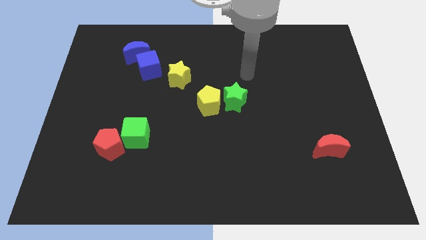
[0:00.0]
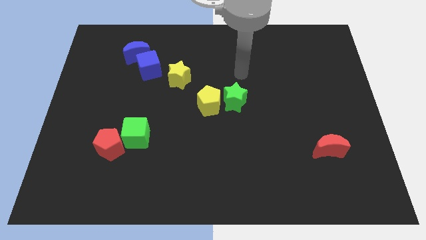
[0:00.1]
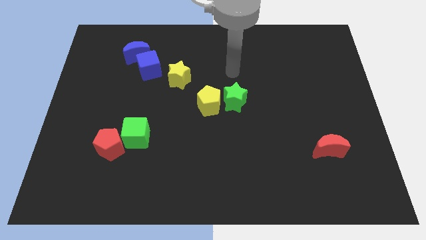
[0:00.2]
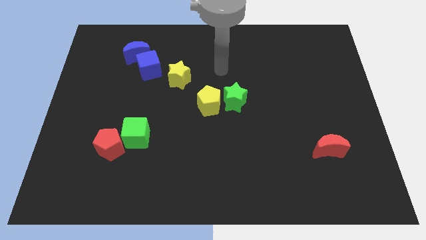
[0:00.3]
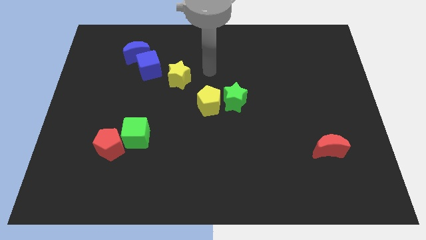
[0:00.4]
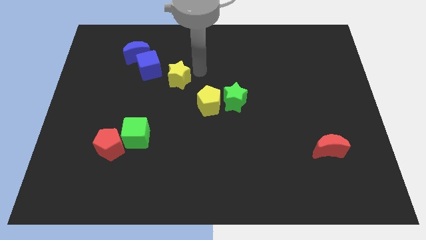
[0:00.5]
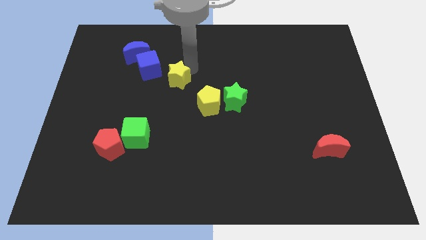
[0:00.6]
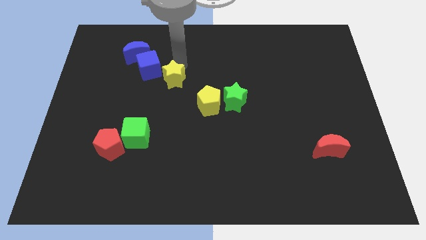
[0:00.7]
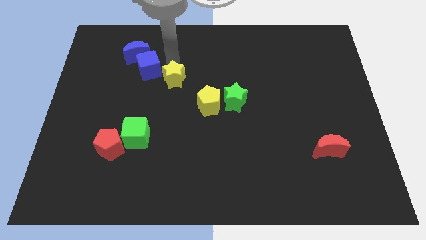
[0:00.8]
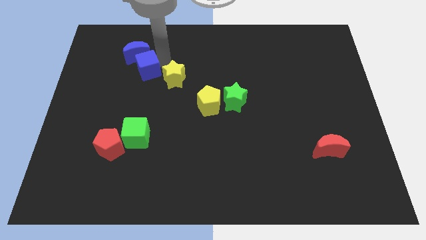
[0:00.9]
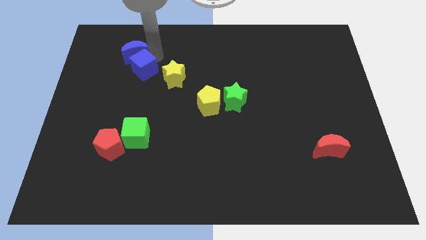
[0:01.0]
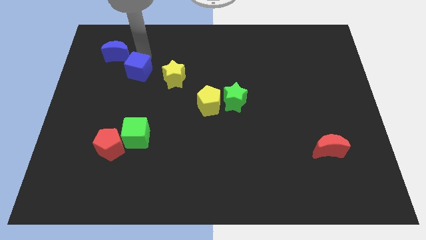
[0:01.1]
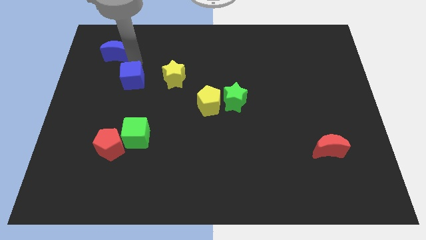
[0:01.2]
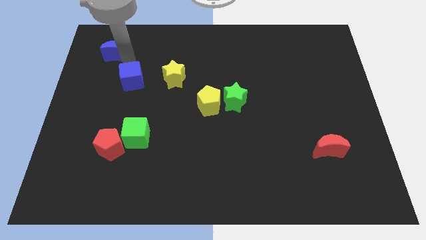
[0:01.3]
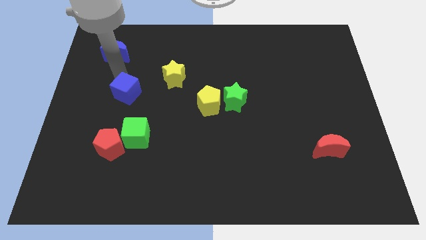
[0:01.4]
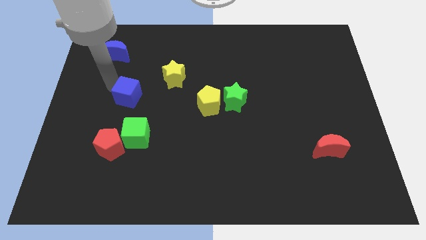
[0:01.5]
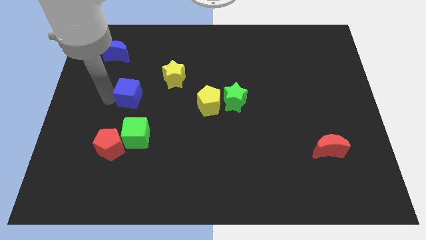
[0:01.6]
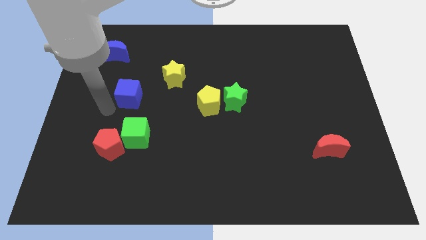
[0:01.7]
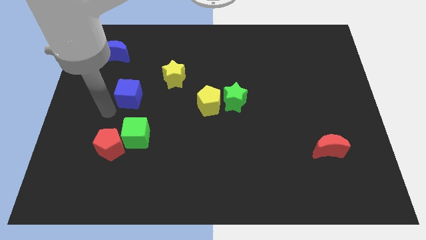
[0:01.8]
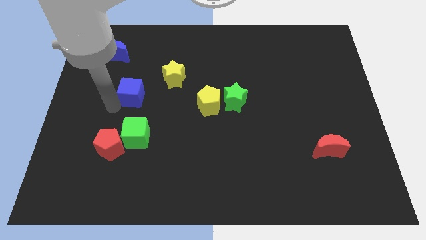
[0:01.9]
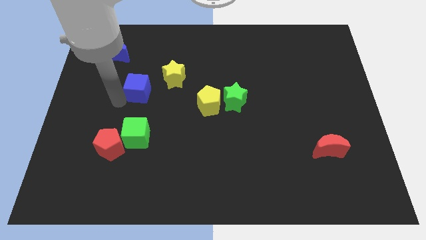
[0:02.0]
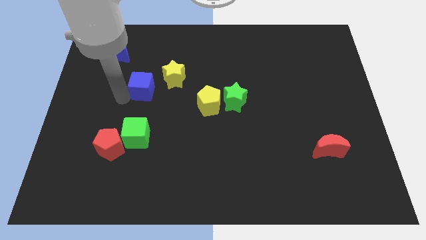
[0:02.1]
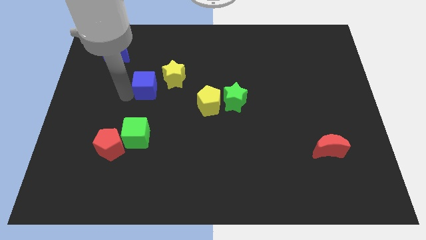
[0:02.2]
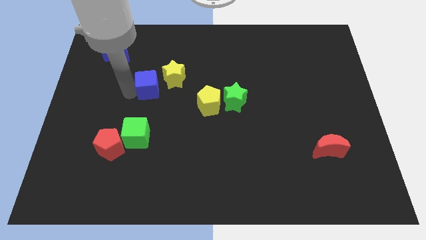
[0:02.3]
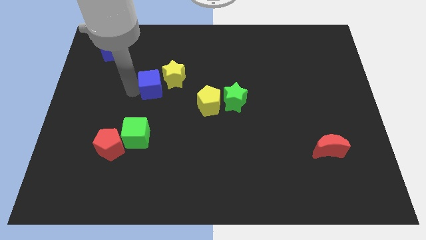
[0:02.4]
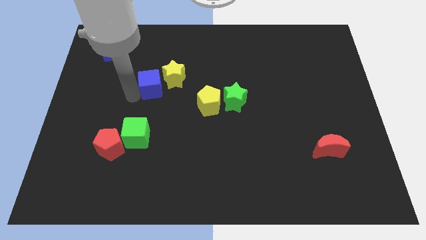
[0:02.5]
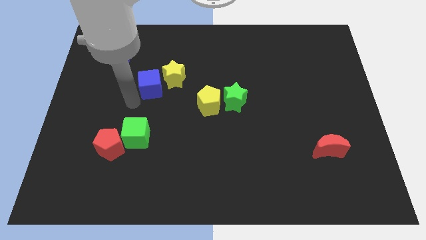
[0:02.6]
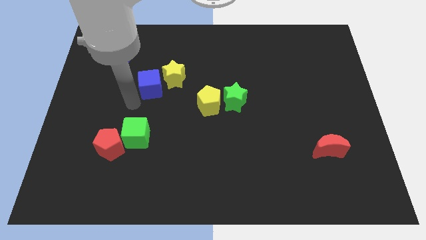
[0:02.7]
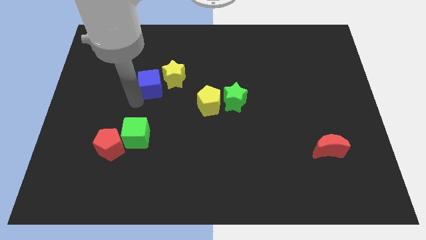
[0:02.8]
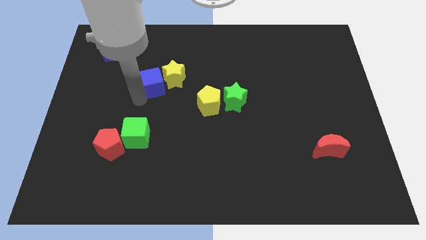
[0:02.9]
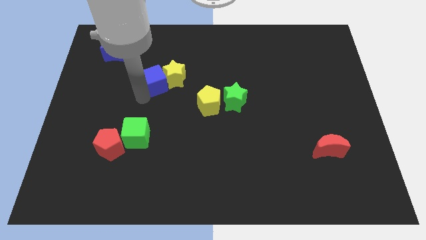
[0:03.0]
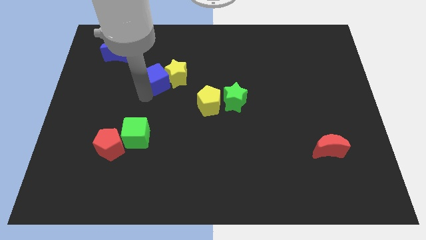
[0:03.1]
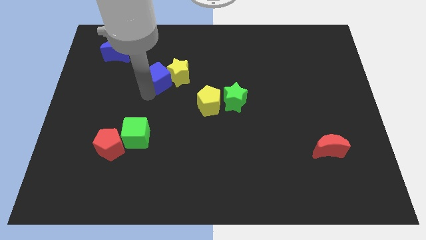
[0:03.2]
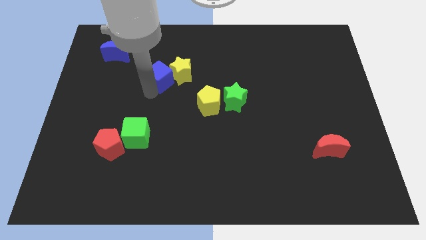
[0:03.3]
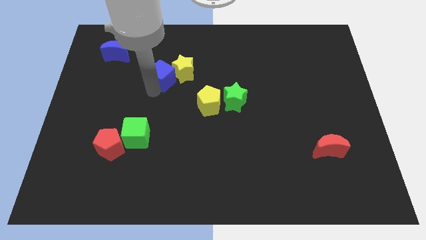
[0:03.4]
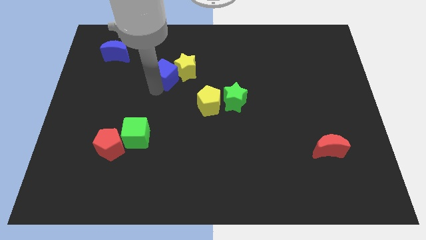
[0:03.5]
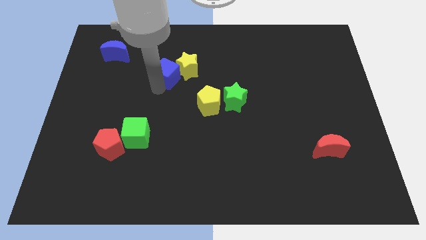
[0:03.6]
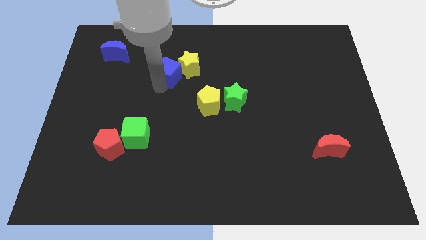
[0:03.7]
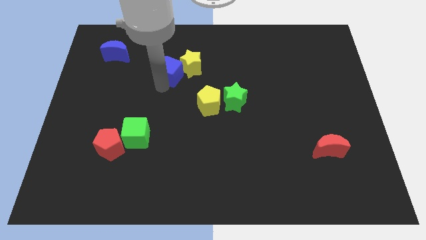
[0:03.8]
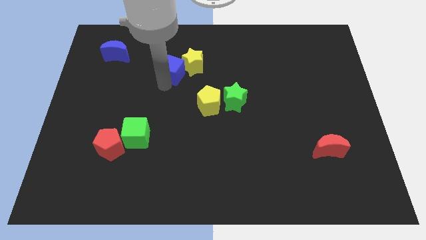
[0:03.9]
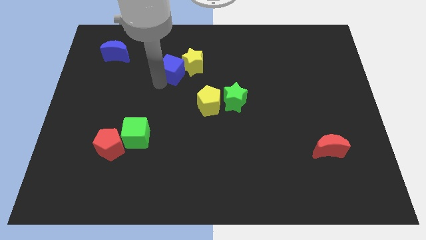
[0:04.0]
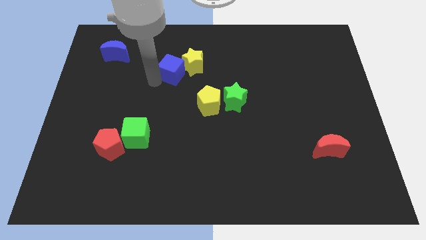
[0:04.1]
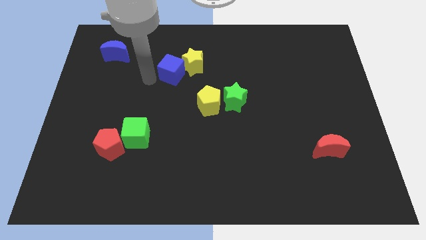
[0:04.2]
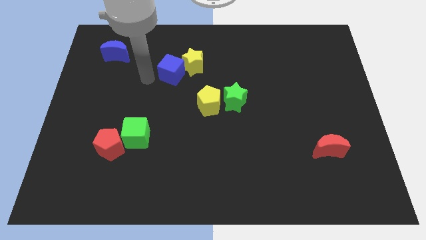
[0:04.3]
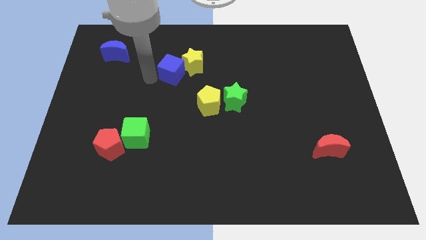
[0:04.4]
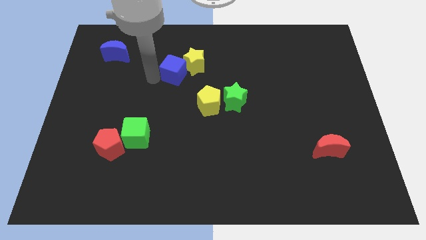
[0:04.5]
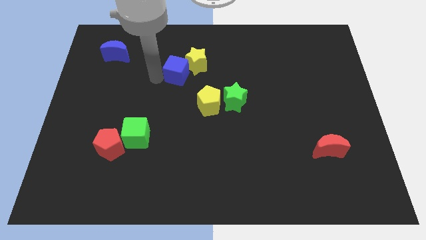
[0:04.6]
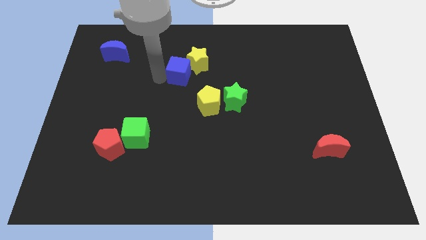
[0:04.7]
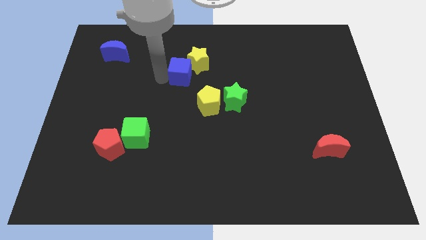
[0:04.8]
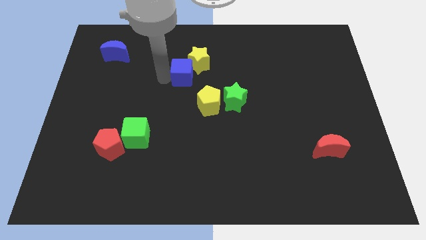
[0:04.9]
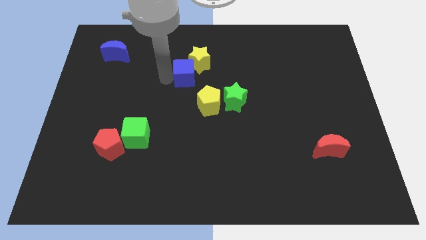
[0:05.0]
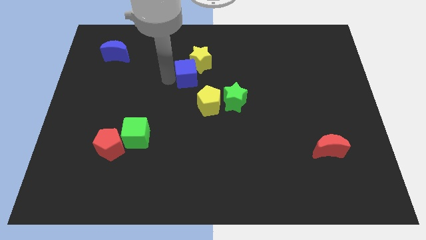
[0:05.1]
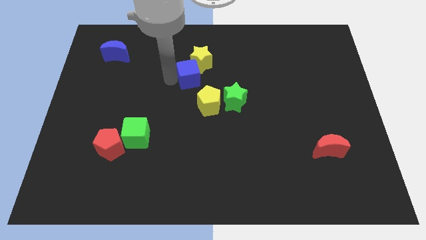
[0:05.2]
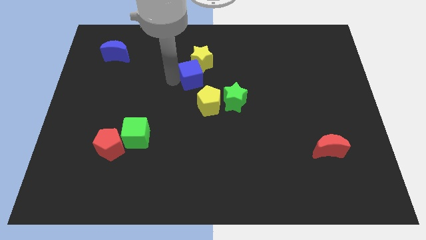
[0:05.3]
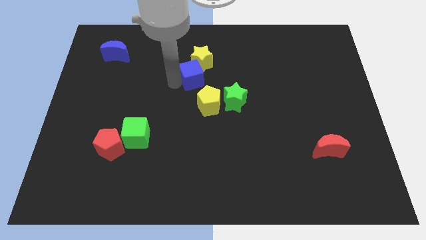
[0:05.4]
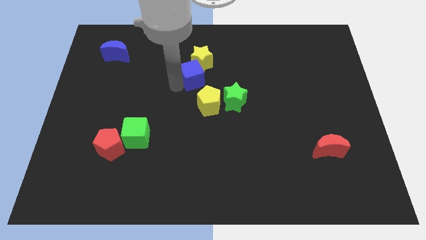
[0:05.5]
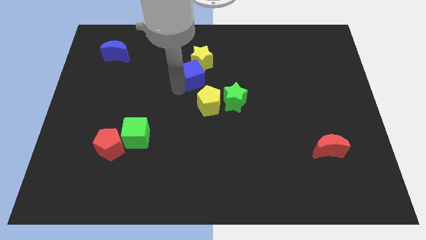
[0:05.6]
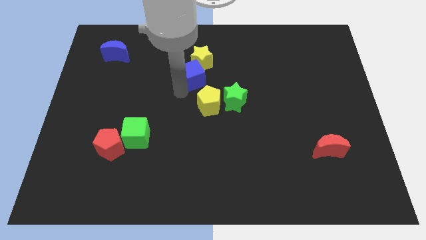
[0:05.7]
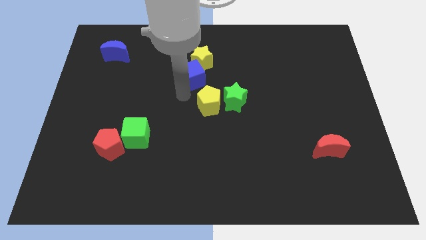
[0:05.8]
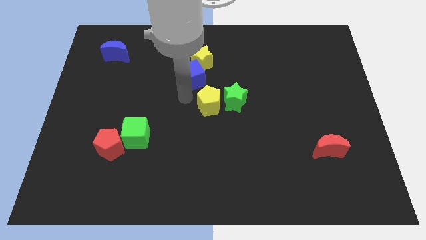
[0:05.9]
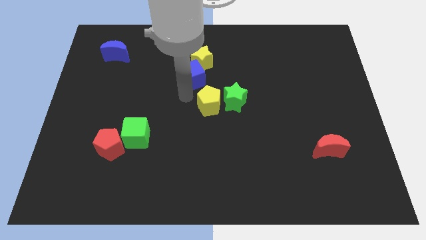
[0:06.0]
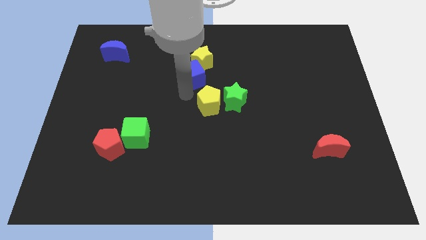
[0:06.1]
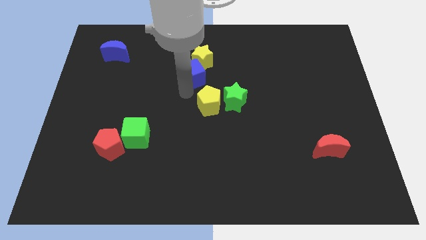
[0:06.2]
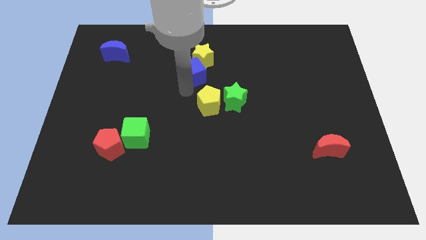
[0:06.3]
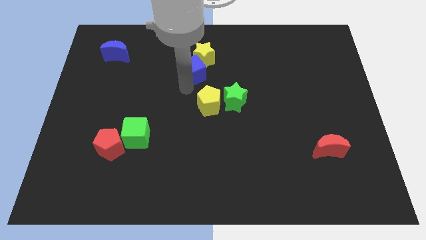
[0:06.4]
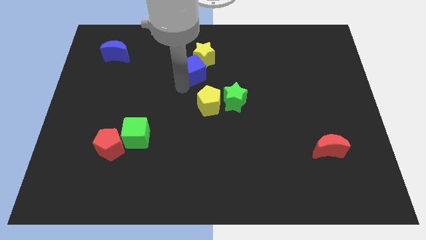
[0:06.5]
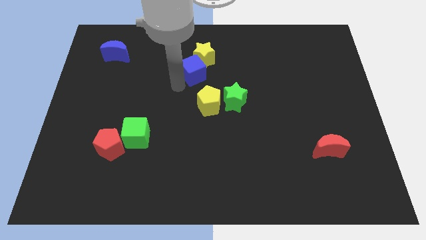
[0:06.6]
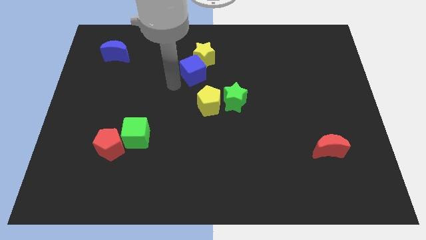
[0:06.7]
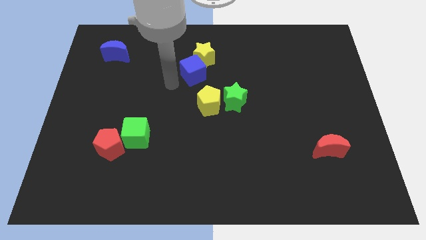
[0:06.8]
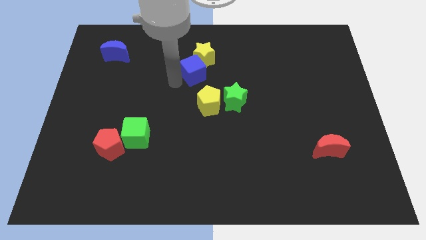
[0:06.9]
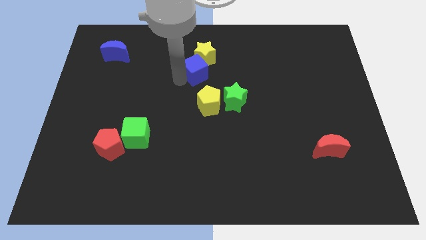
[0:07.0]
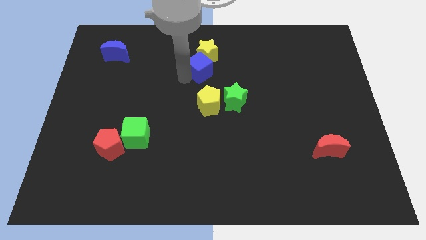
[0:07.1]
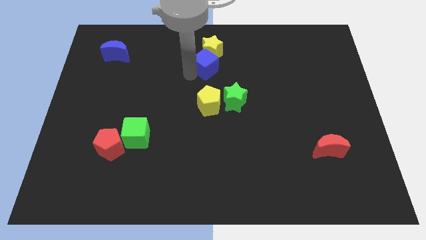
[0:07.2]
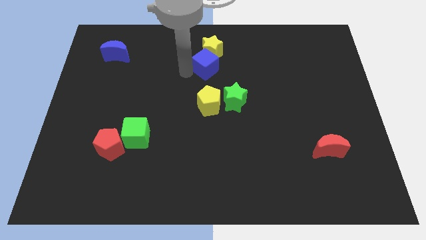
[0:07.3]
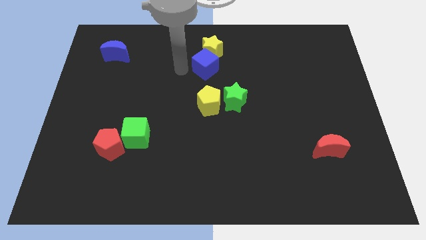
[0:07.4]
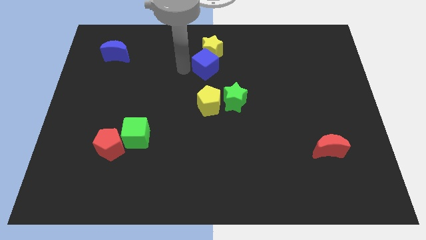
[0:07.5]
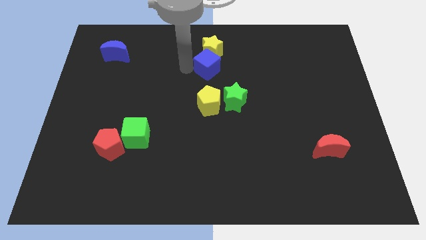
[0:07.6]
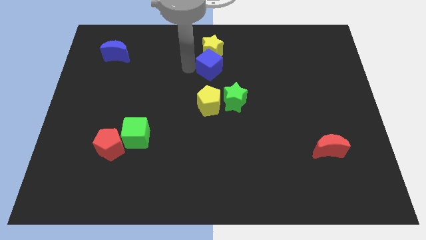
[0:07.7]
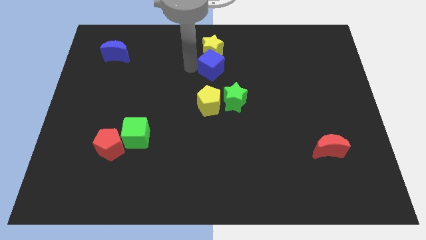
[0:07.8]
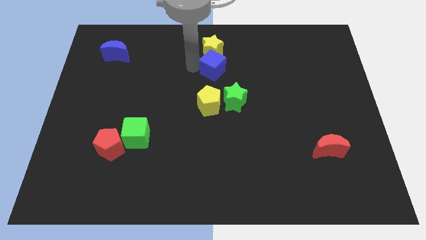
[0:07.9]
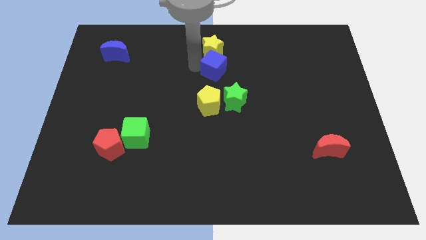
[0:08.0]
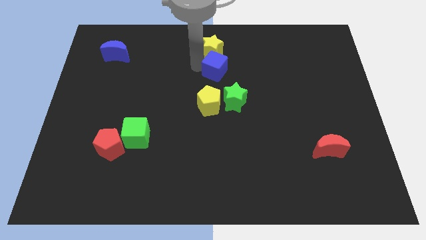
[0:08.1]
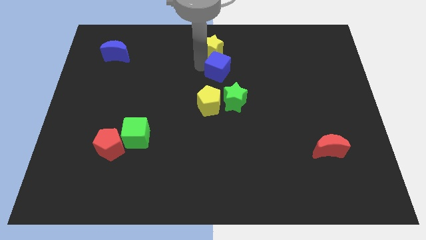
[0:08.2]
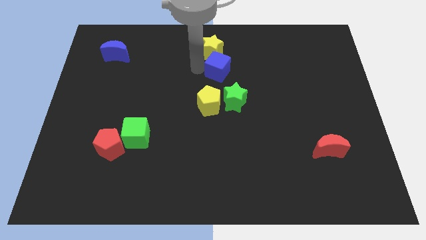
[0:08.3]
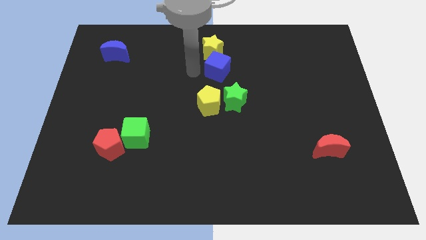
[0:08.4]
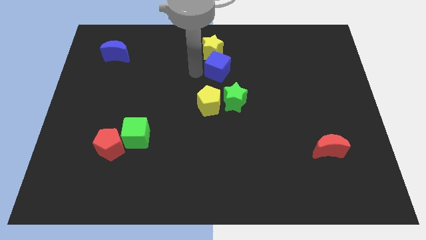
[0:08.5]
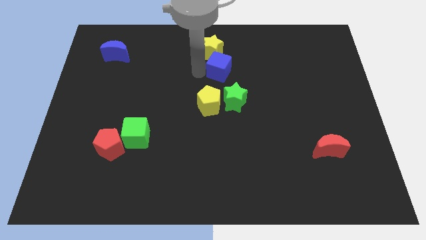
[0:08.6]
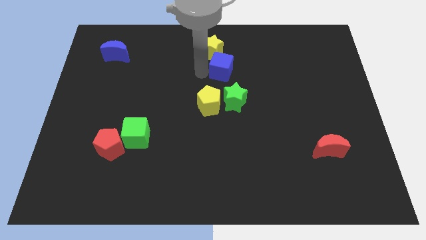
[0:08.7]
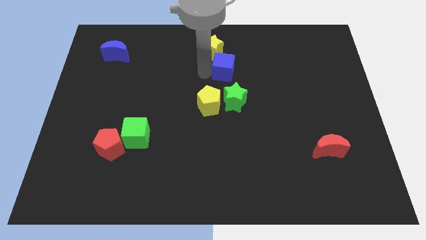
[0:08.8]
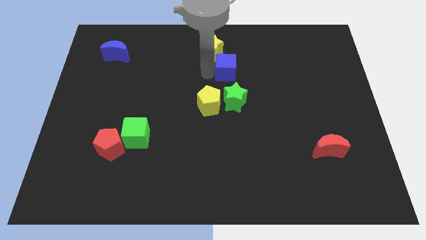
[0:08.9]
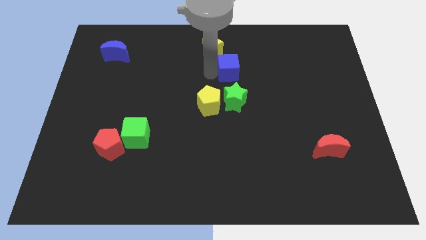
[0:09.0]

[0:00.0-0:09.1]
push the blue cube to the right
